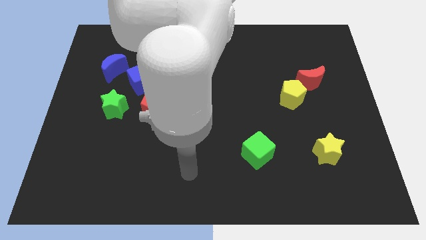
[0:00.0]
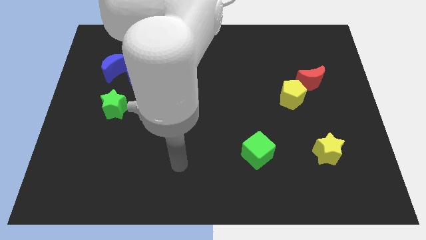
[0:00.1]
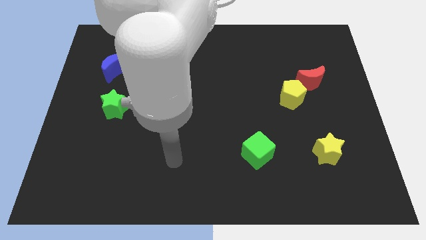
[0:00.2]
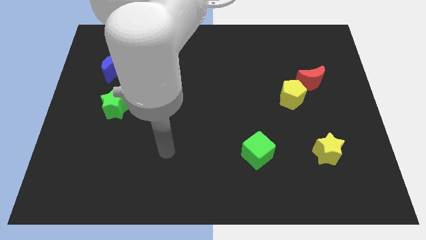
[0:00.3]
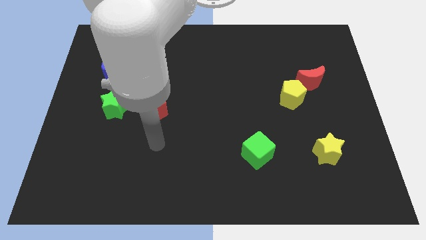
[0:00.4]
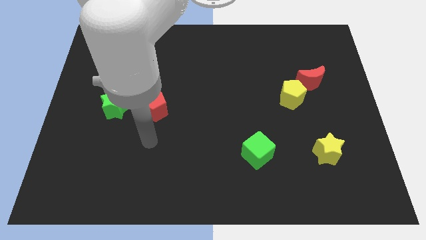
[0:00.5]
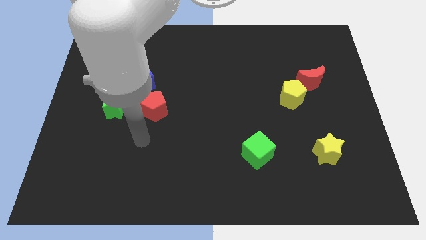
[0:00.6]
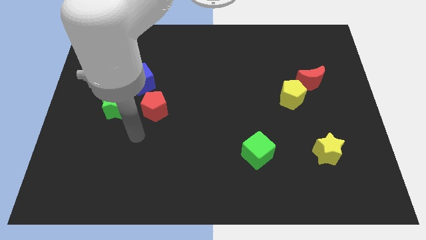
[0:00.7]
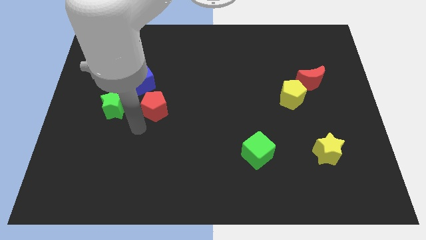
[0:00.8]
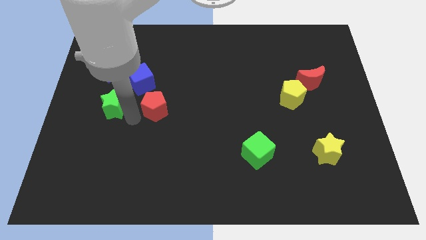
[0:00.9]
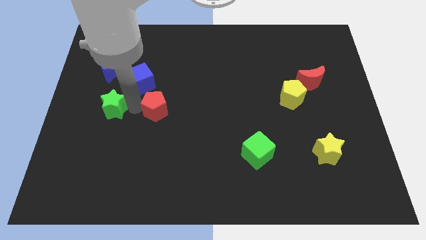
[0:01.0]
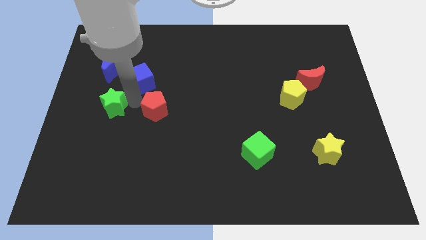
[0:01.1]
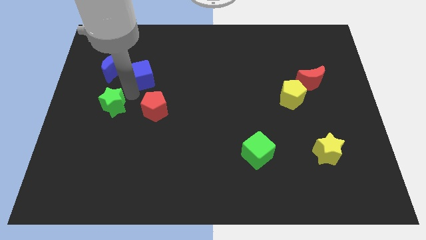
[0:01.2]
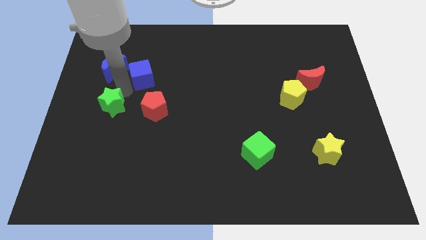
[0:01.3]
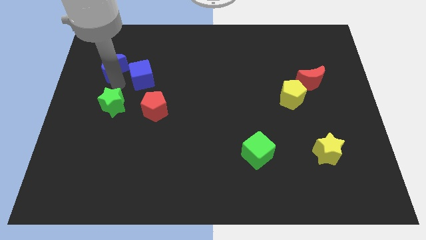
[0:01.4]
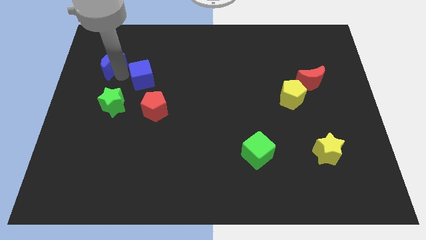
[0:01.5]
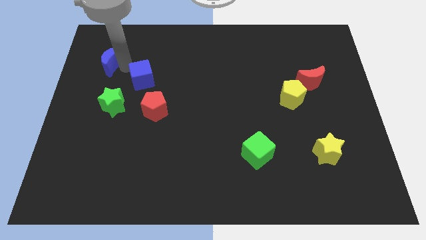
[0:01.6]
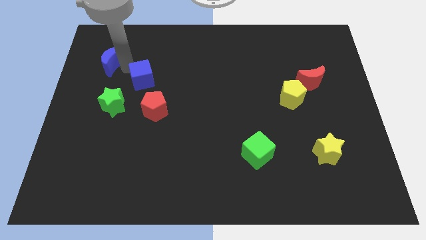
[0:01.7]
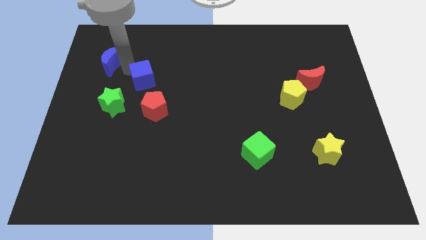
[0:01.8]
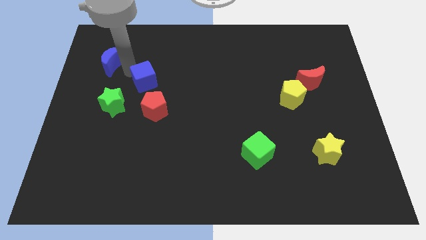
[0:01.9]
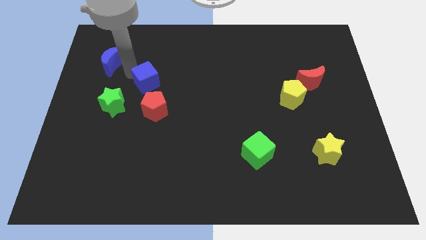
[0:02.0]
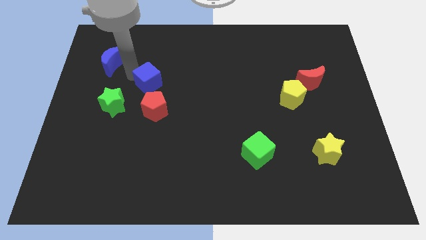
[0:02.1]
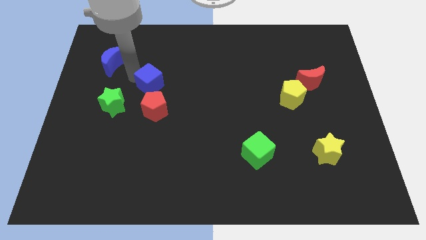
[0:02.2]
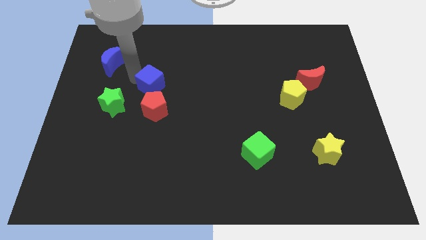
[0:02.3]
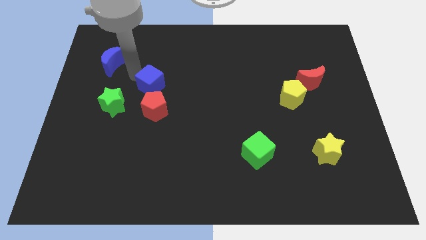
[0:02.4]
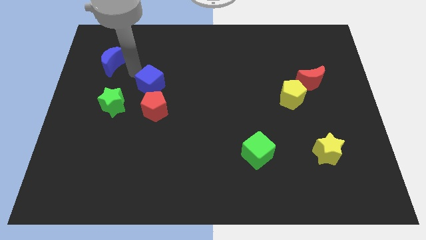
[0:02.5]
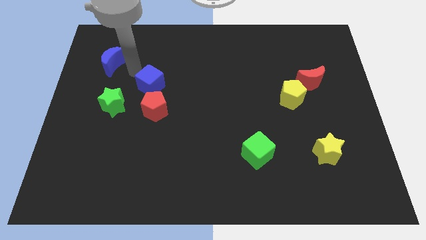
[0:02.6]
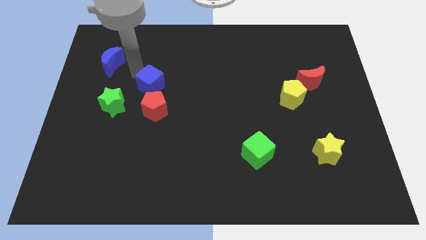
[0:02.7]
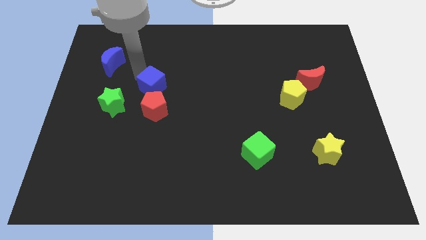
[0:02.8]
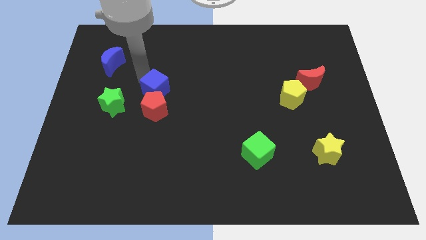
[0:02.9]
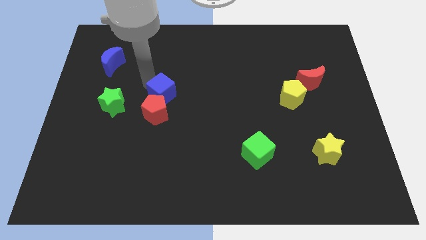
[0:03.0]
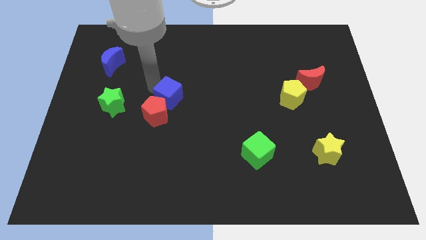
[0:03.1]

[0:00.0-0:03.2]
slide the blue cube slightly down and right diagonally

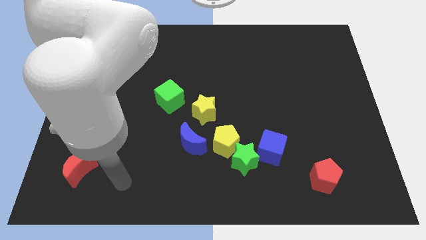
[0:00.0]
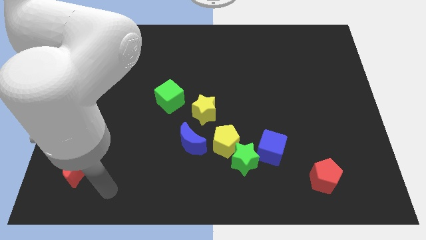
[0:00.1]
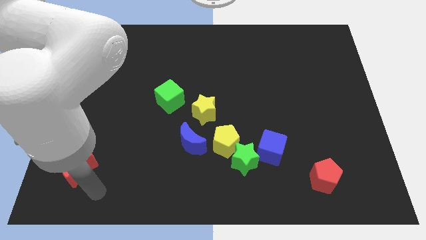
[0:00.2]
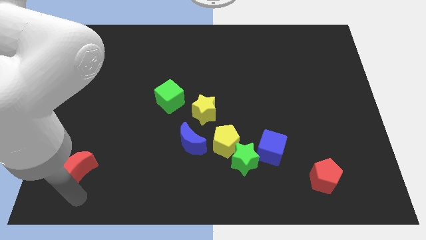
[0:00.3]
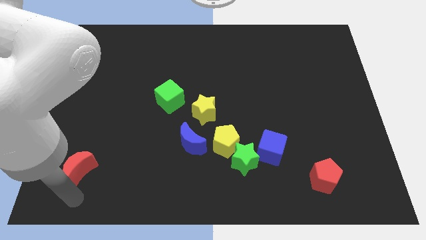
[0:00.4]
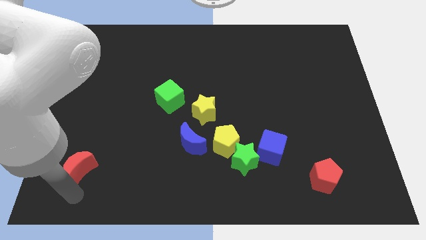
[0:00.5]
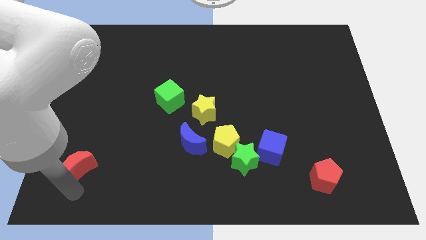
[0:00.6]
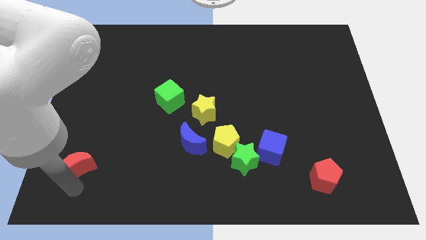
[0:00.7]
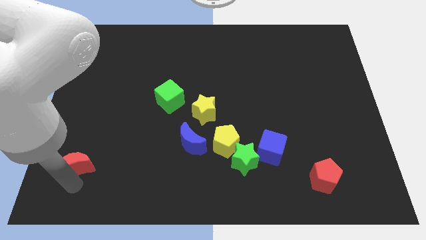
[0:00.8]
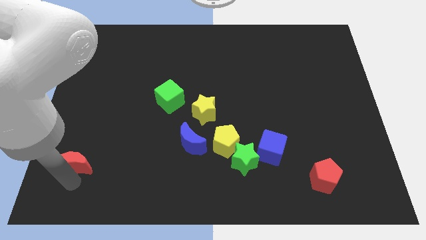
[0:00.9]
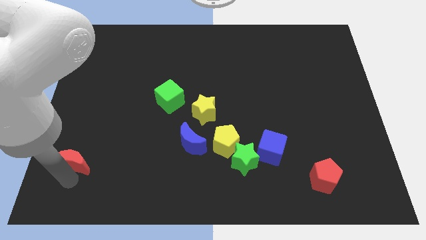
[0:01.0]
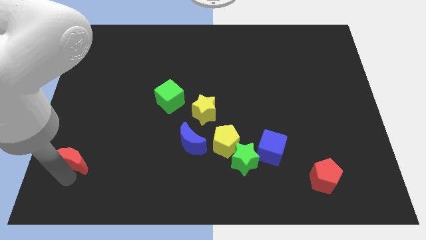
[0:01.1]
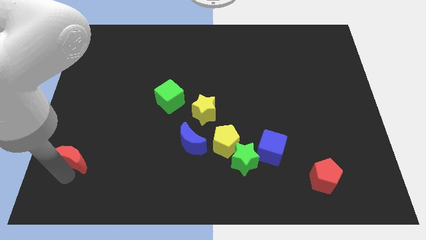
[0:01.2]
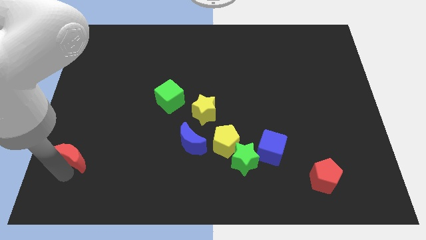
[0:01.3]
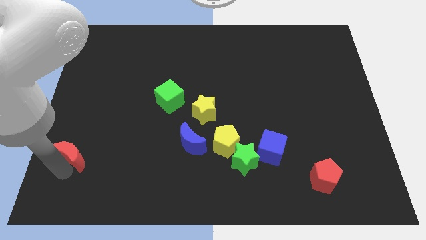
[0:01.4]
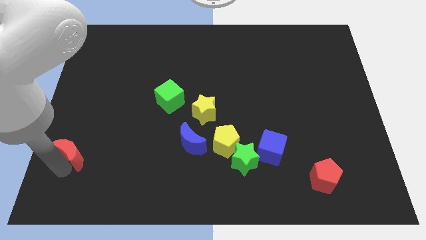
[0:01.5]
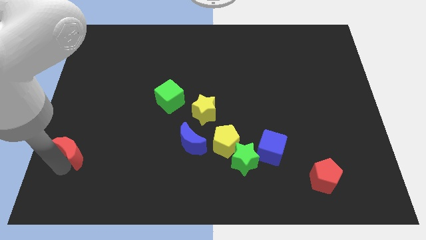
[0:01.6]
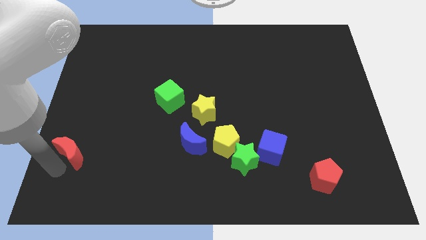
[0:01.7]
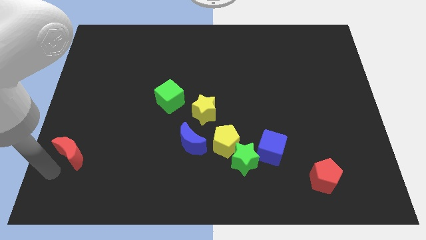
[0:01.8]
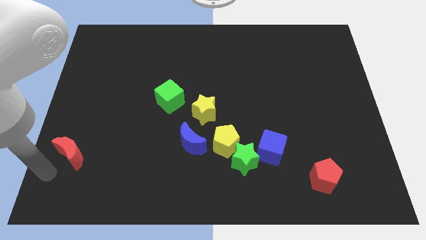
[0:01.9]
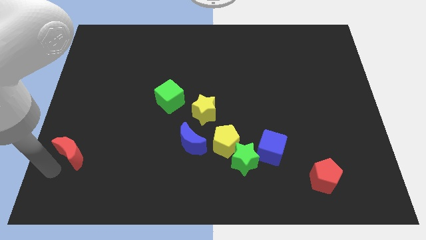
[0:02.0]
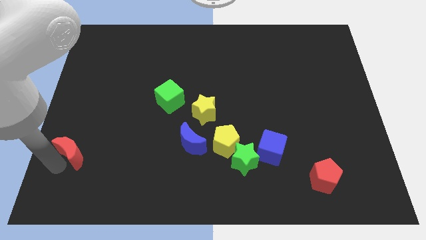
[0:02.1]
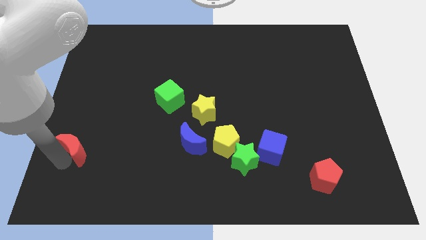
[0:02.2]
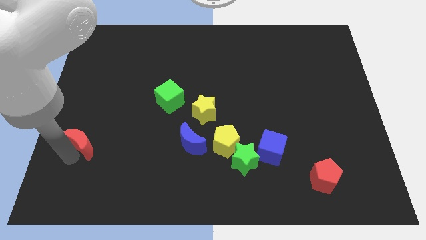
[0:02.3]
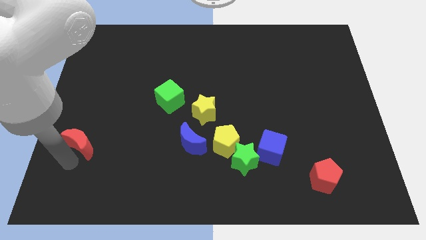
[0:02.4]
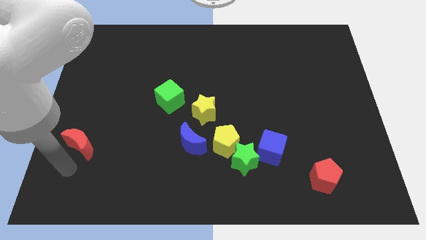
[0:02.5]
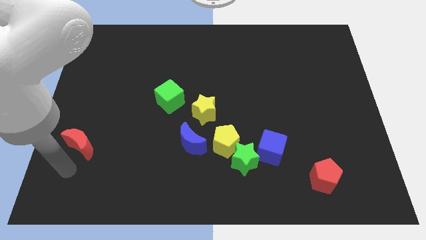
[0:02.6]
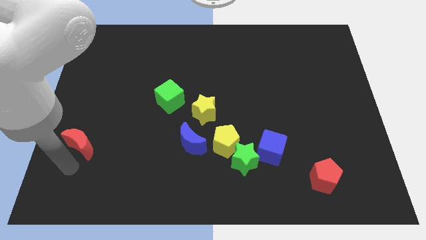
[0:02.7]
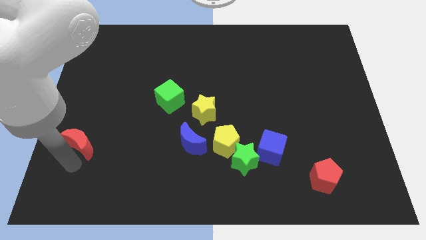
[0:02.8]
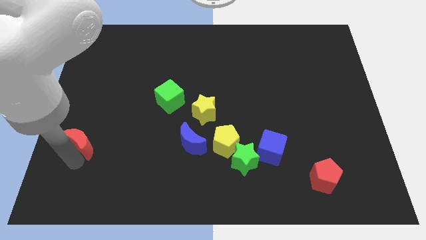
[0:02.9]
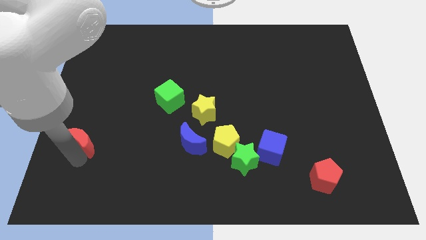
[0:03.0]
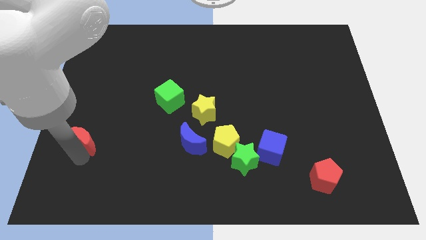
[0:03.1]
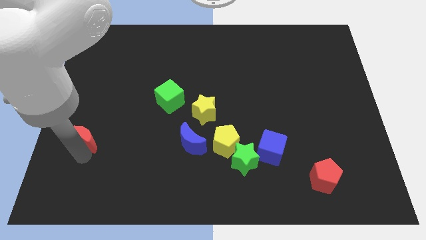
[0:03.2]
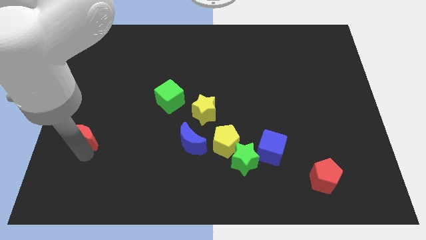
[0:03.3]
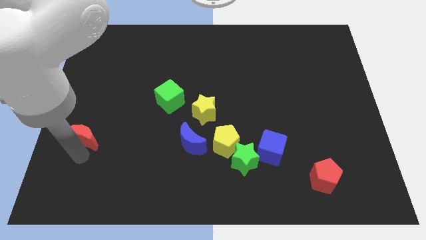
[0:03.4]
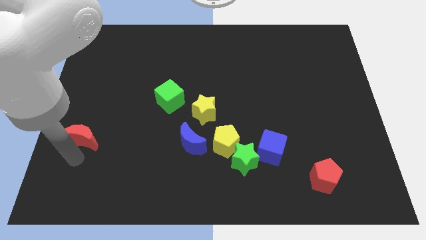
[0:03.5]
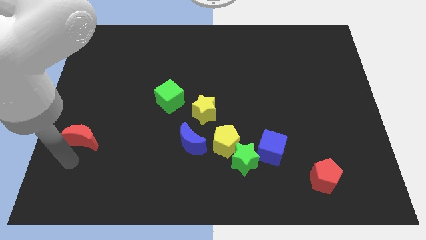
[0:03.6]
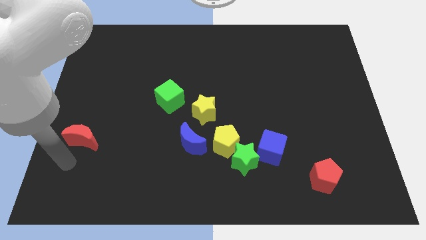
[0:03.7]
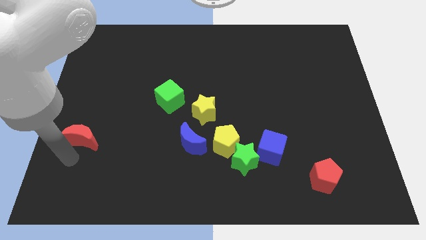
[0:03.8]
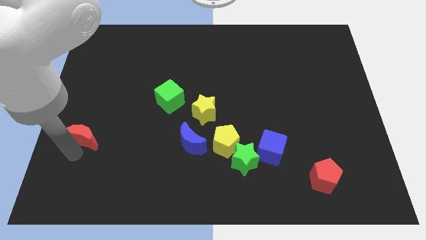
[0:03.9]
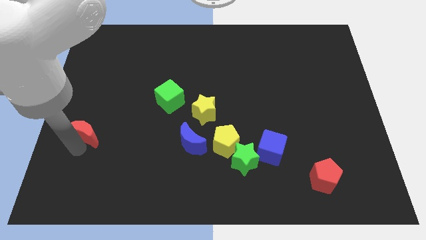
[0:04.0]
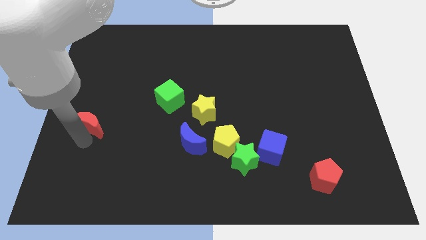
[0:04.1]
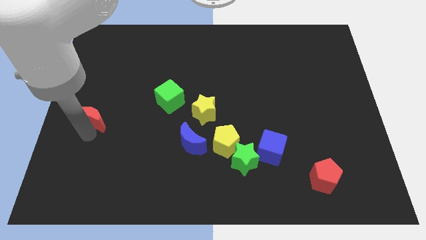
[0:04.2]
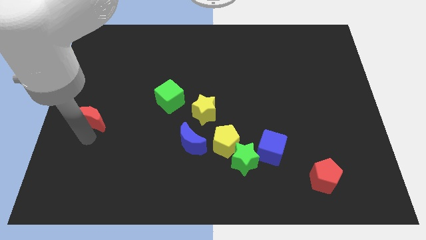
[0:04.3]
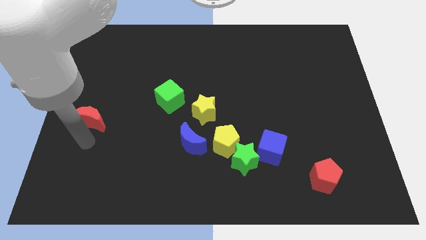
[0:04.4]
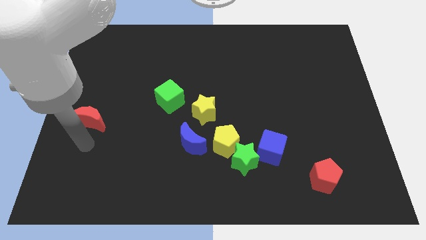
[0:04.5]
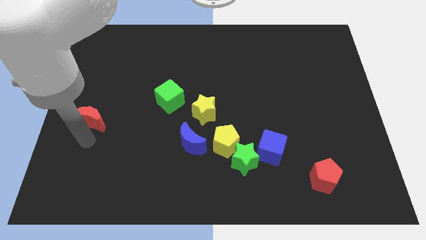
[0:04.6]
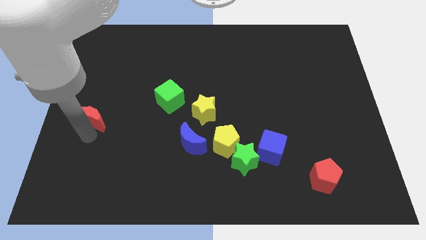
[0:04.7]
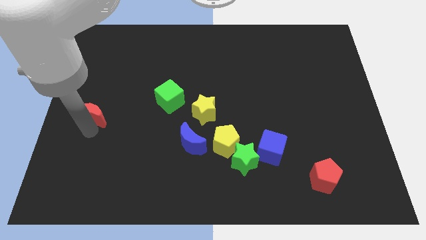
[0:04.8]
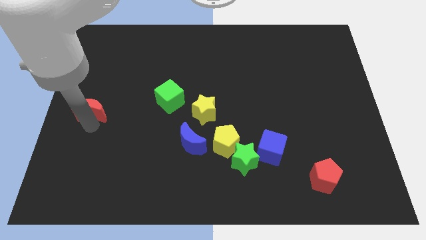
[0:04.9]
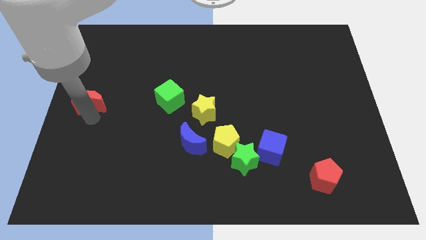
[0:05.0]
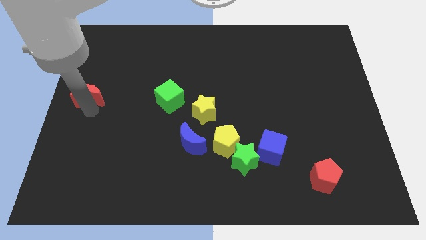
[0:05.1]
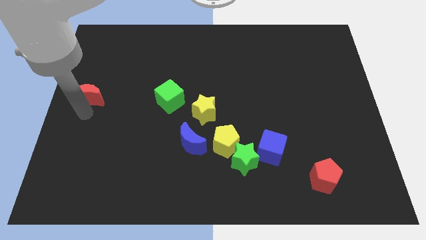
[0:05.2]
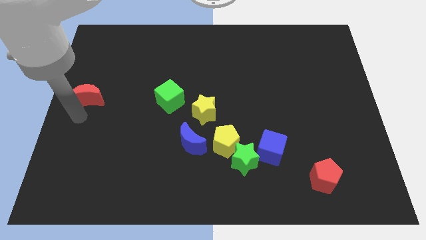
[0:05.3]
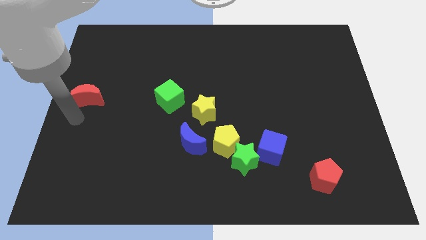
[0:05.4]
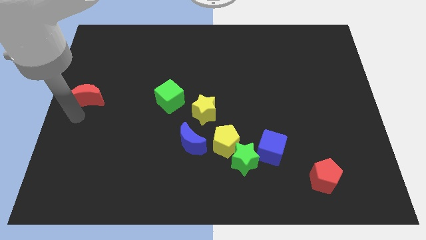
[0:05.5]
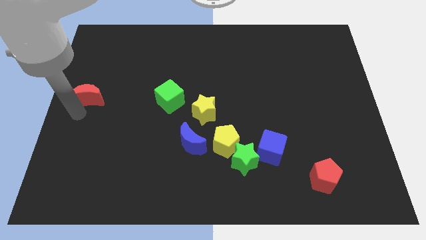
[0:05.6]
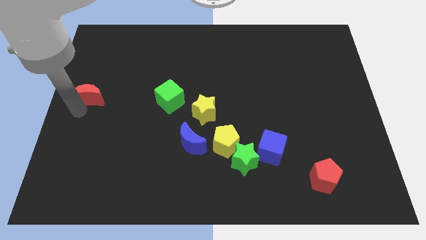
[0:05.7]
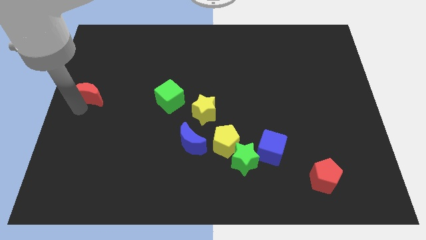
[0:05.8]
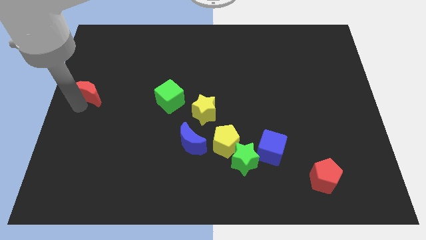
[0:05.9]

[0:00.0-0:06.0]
slide the red moon upwards
